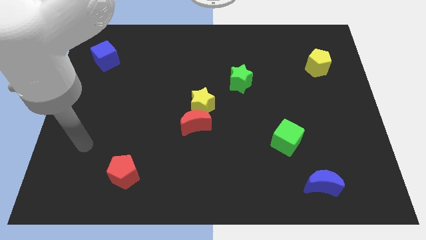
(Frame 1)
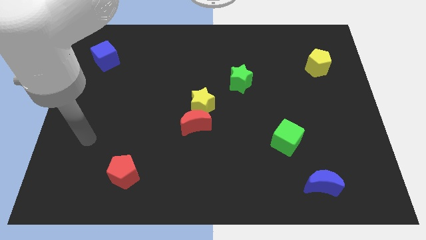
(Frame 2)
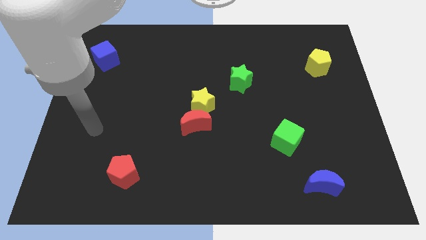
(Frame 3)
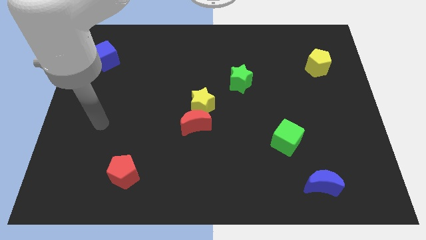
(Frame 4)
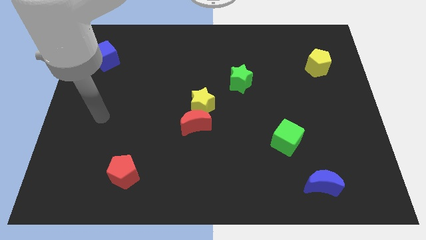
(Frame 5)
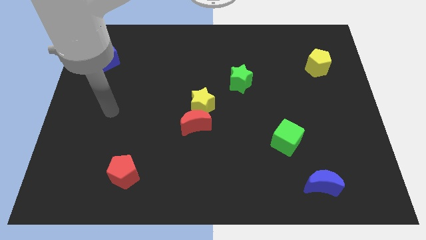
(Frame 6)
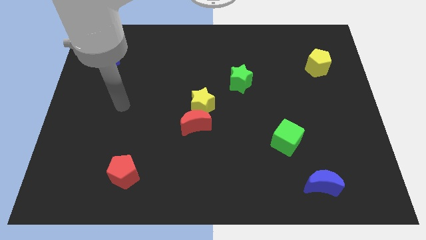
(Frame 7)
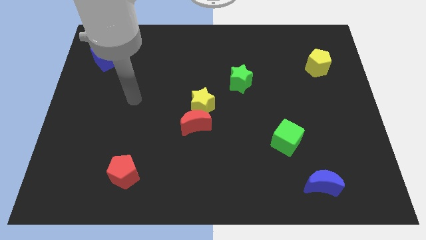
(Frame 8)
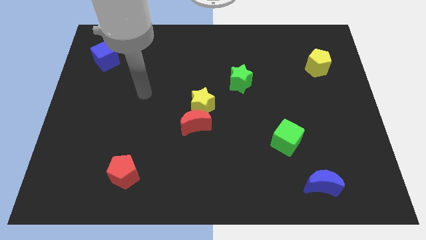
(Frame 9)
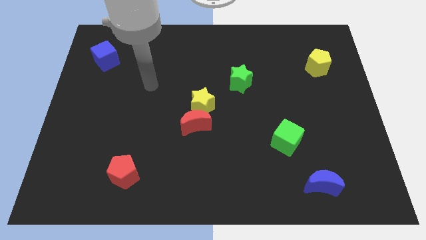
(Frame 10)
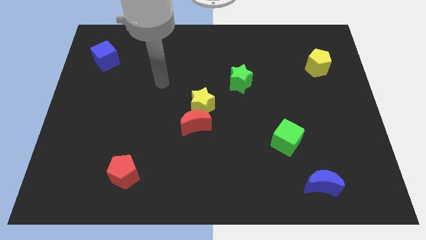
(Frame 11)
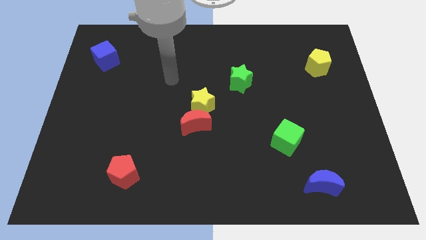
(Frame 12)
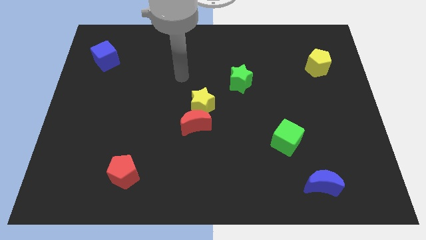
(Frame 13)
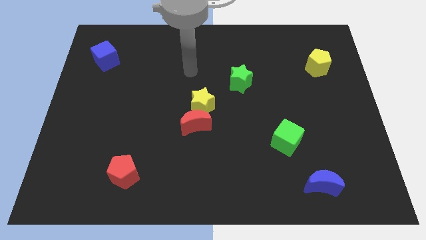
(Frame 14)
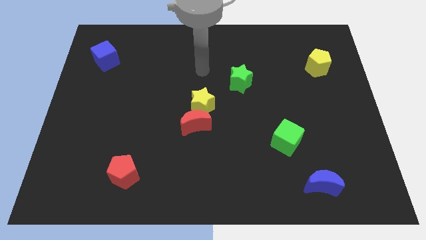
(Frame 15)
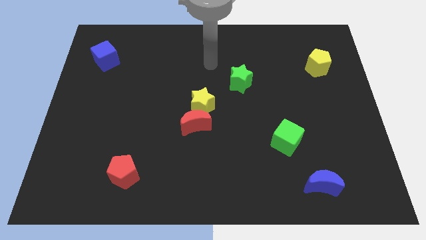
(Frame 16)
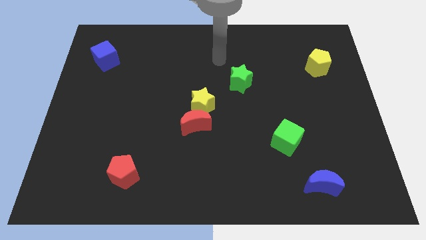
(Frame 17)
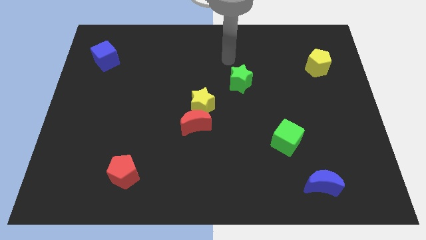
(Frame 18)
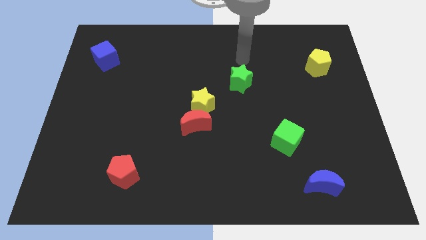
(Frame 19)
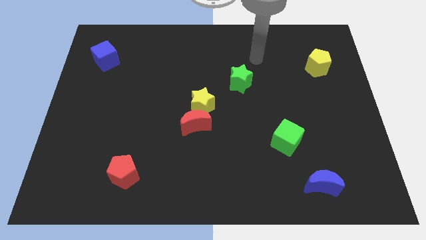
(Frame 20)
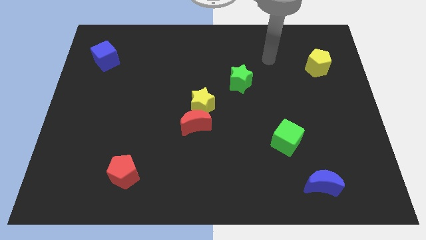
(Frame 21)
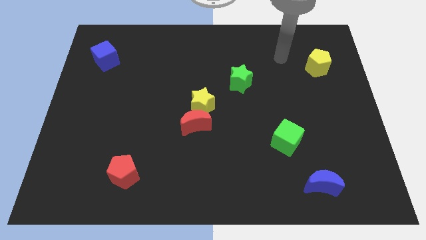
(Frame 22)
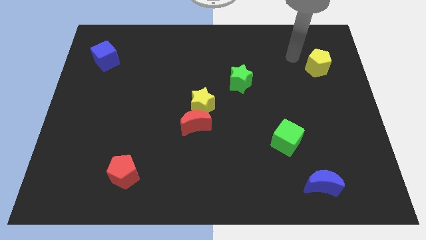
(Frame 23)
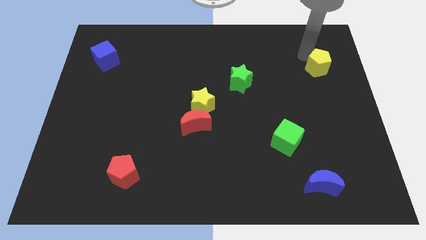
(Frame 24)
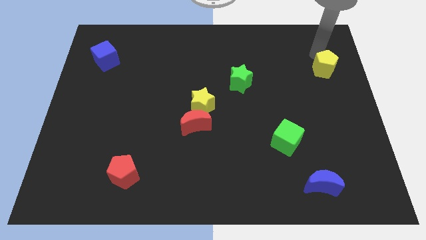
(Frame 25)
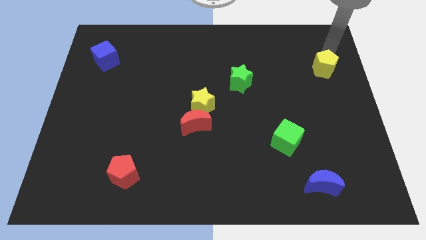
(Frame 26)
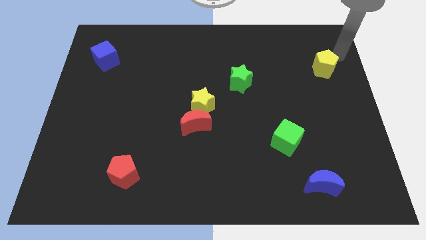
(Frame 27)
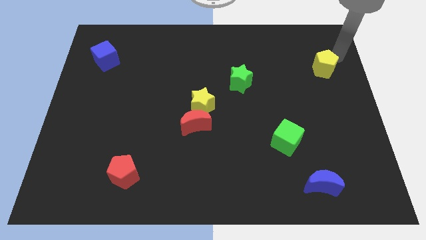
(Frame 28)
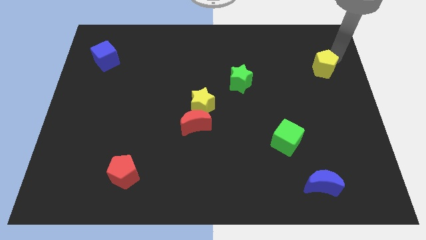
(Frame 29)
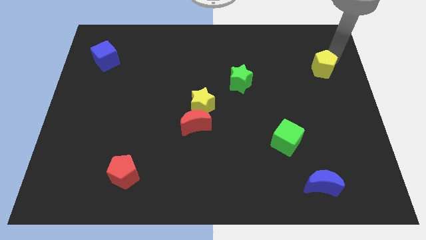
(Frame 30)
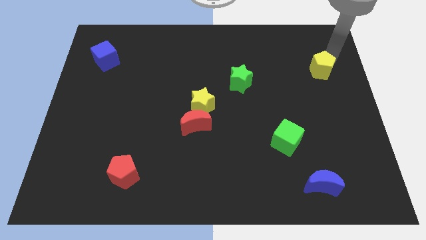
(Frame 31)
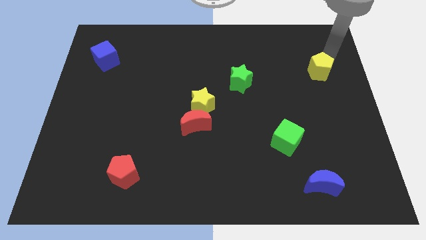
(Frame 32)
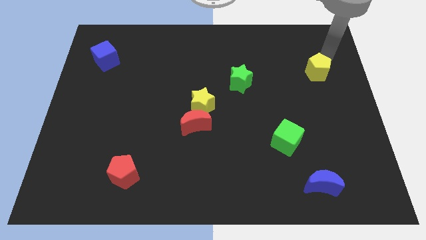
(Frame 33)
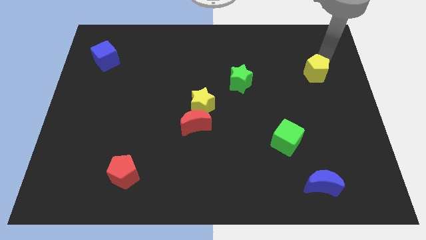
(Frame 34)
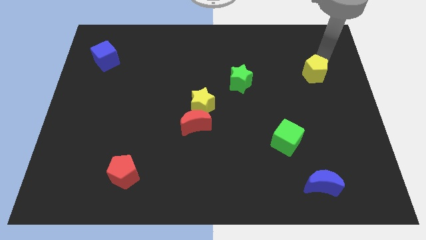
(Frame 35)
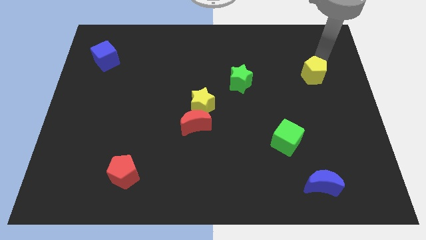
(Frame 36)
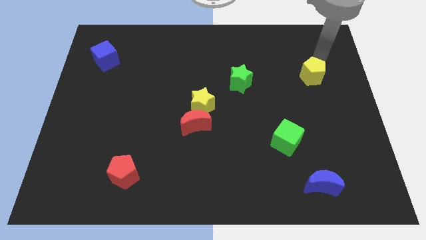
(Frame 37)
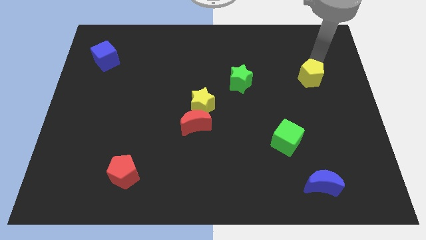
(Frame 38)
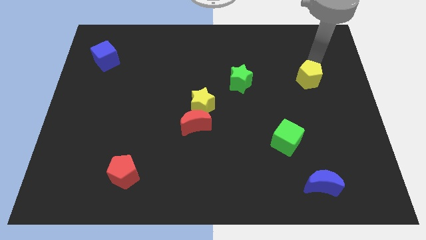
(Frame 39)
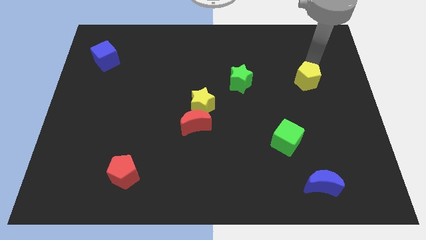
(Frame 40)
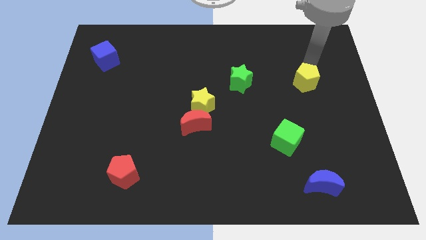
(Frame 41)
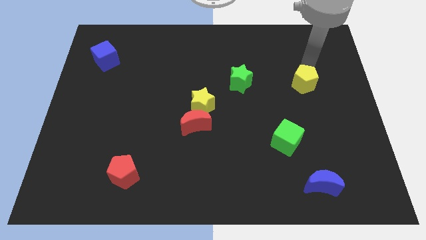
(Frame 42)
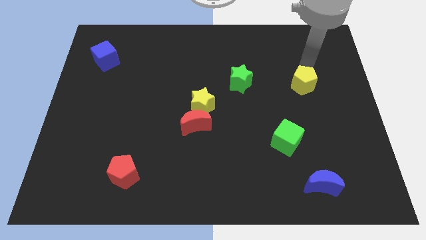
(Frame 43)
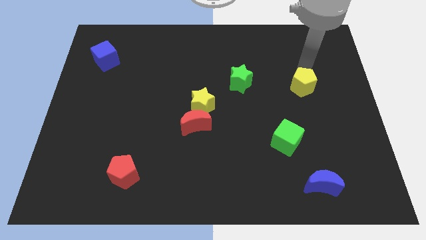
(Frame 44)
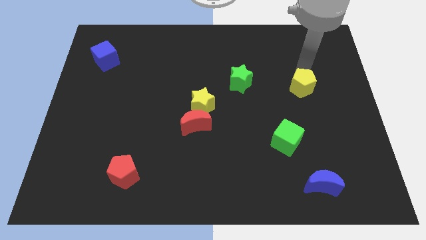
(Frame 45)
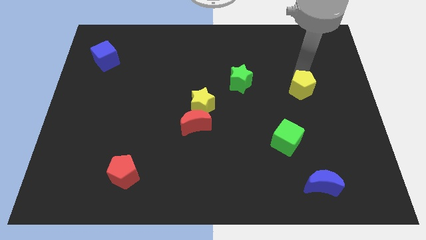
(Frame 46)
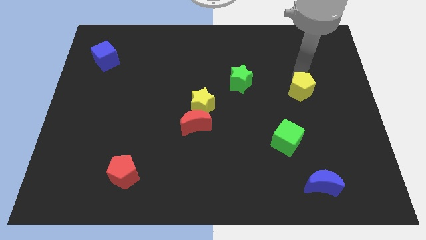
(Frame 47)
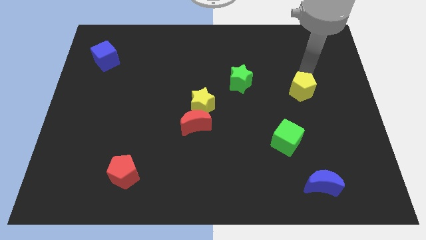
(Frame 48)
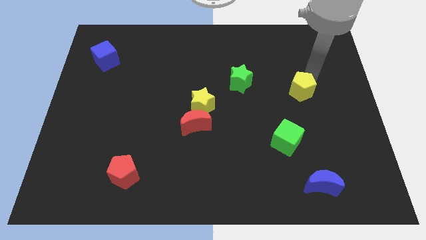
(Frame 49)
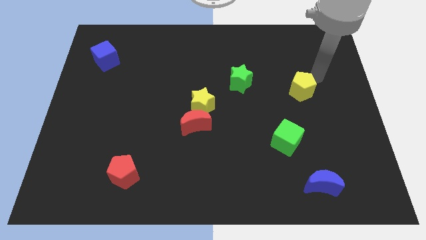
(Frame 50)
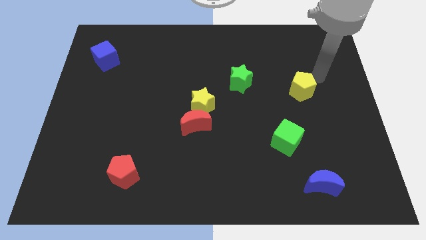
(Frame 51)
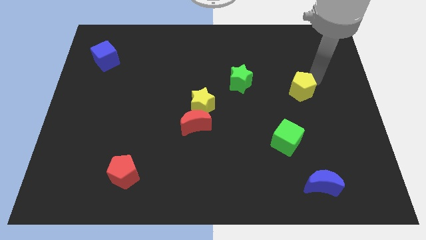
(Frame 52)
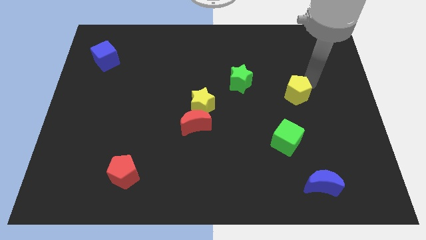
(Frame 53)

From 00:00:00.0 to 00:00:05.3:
push the yellow pentagon above the green cube
